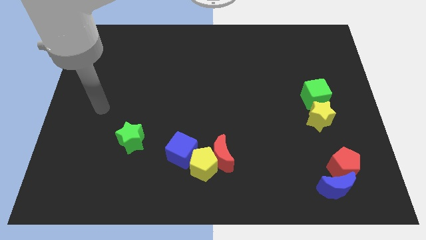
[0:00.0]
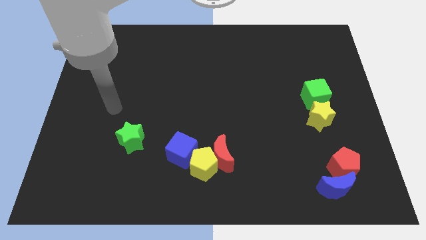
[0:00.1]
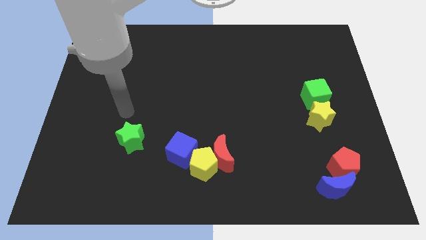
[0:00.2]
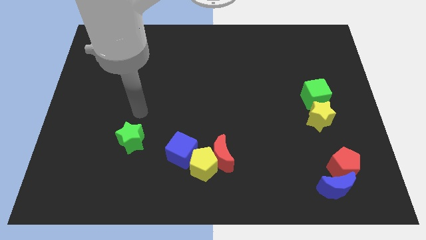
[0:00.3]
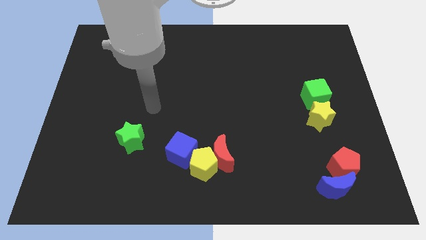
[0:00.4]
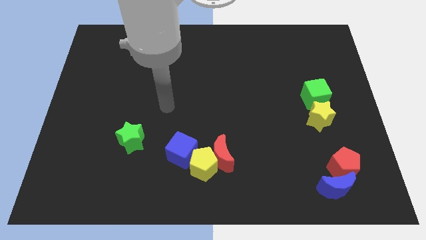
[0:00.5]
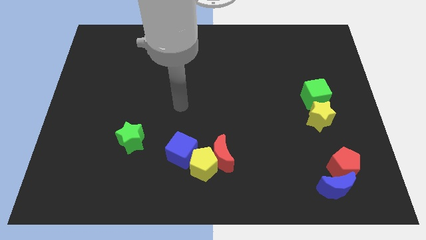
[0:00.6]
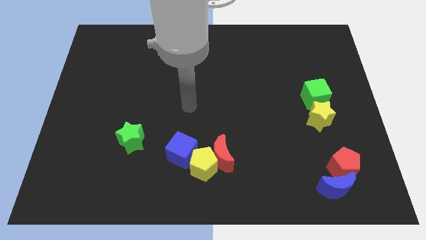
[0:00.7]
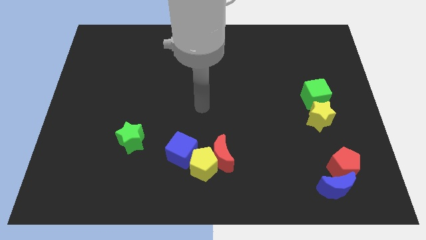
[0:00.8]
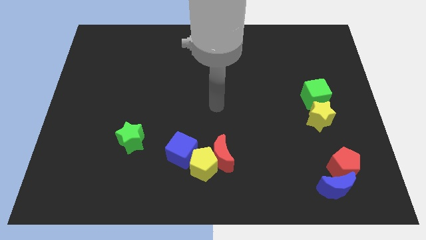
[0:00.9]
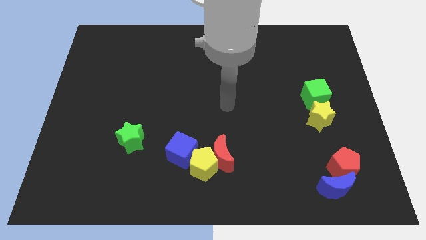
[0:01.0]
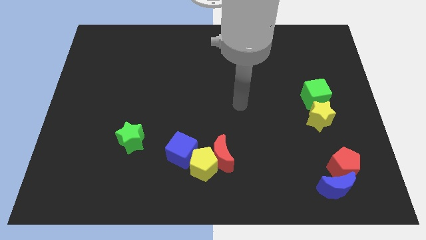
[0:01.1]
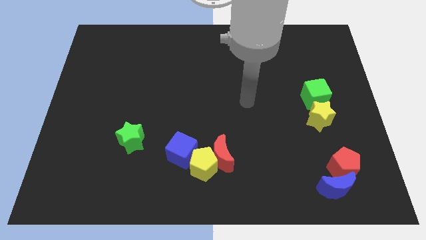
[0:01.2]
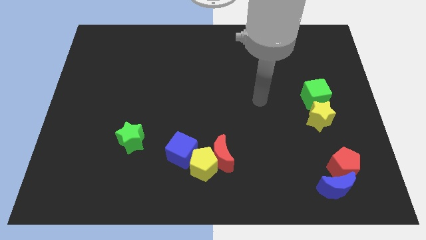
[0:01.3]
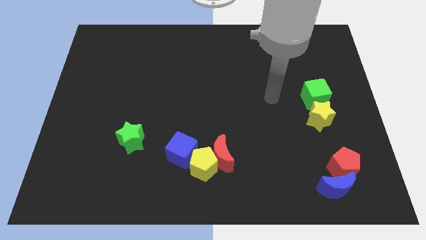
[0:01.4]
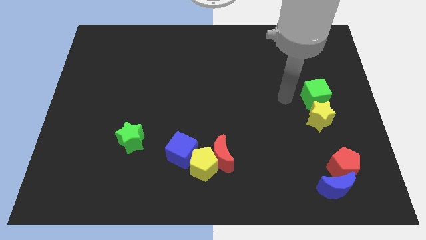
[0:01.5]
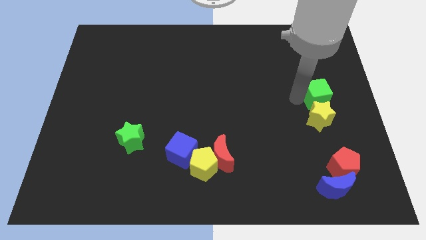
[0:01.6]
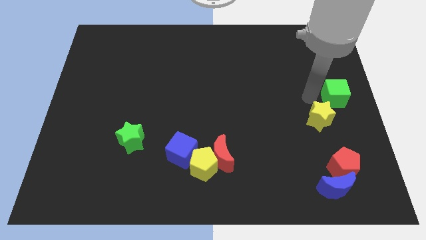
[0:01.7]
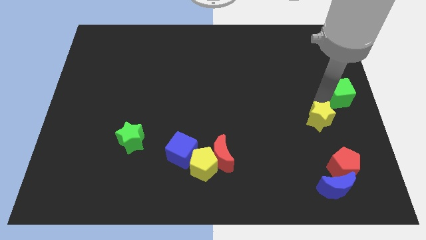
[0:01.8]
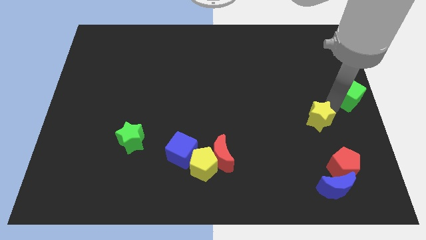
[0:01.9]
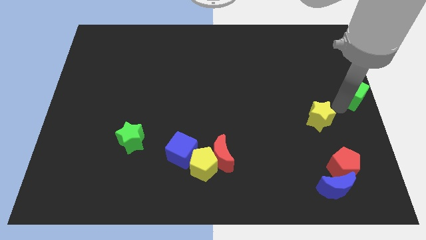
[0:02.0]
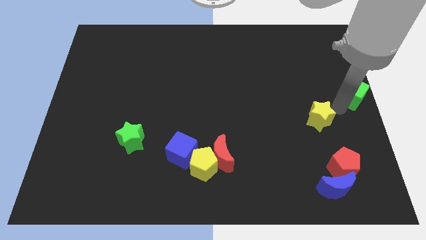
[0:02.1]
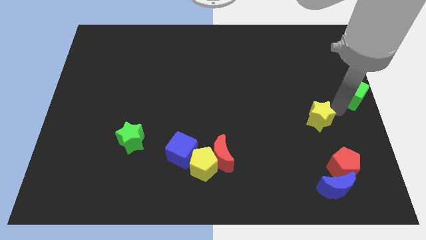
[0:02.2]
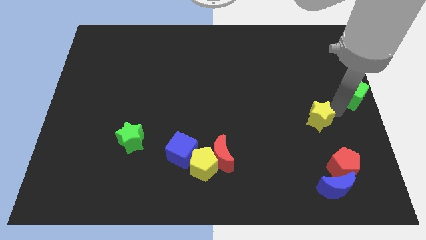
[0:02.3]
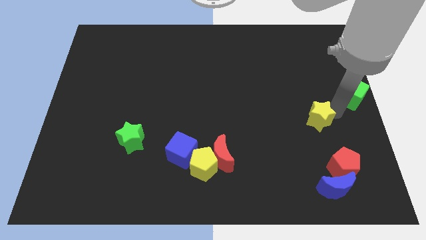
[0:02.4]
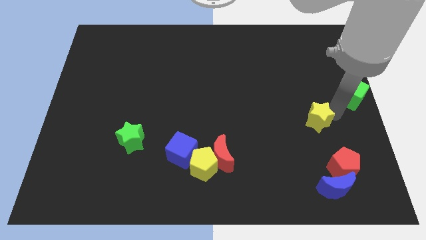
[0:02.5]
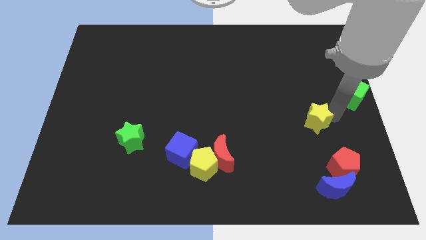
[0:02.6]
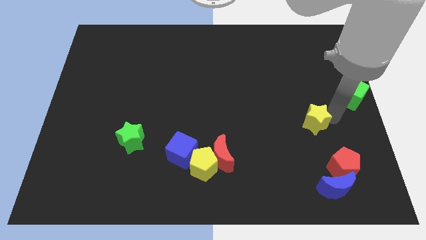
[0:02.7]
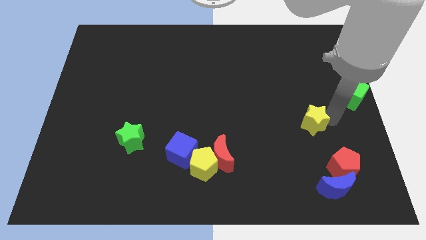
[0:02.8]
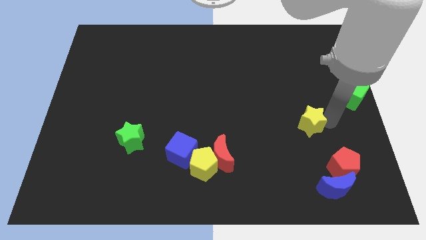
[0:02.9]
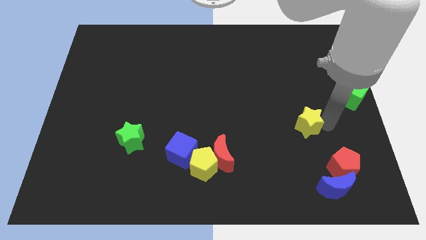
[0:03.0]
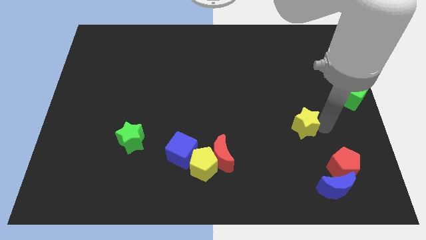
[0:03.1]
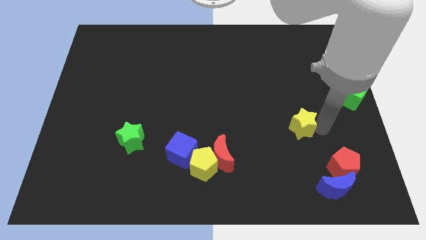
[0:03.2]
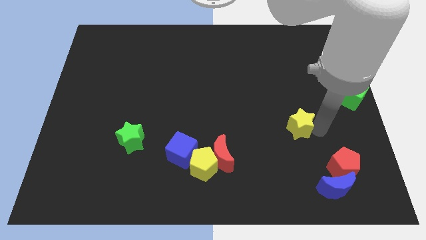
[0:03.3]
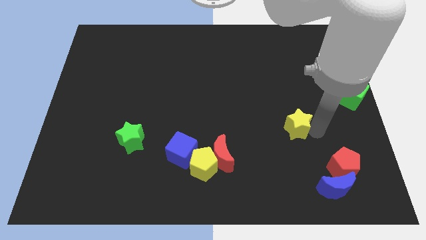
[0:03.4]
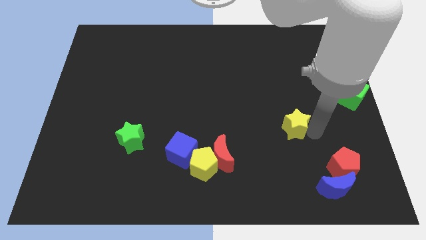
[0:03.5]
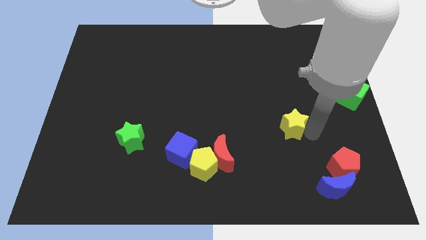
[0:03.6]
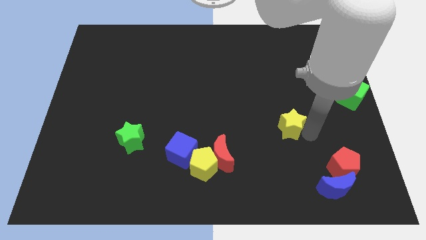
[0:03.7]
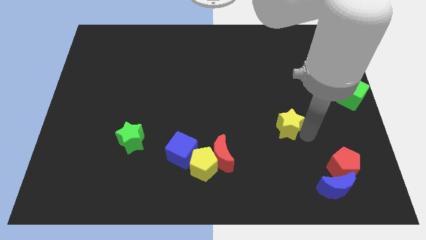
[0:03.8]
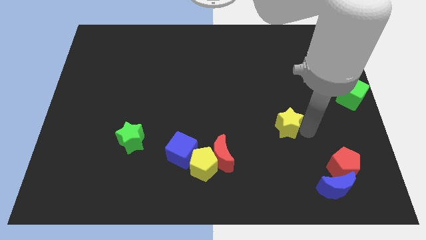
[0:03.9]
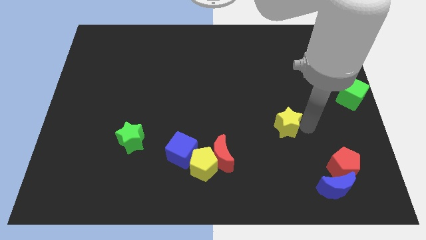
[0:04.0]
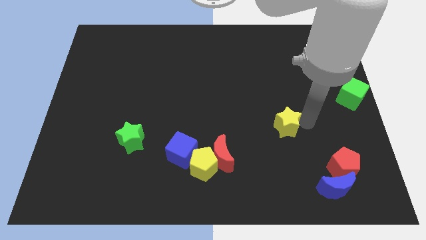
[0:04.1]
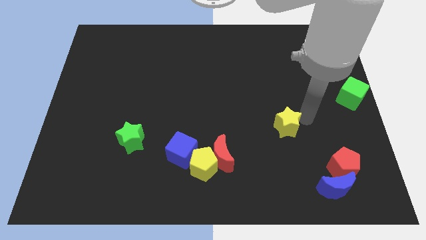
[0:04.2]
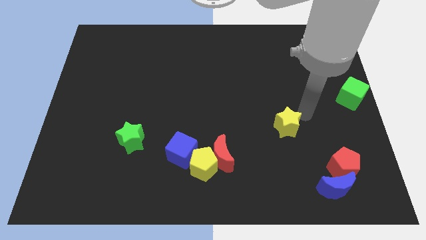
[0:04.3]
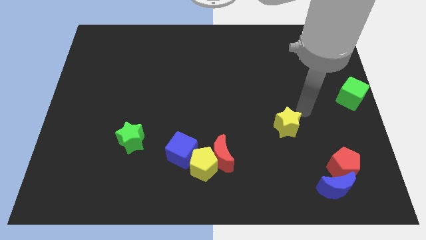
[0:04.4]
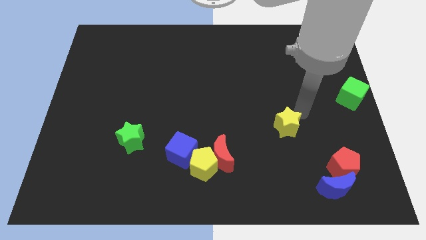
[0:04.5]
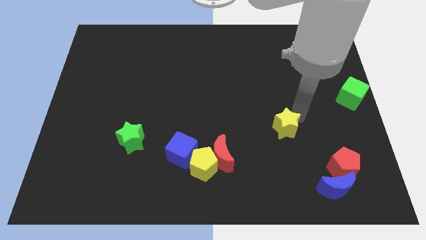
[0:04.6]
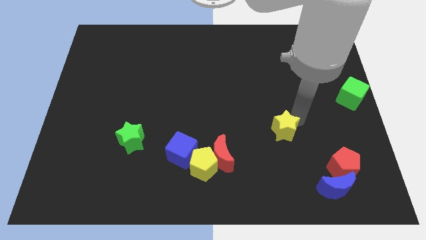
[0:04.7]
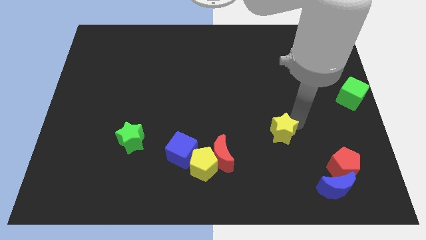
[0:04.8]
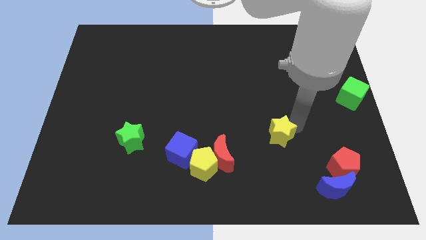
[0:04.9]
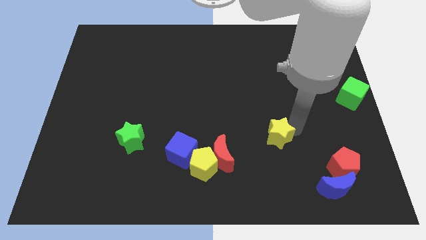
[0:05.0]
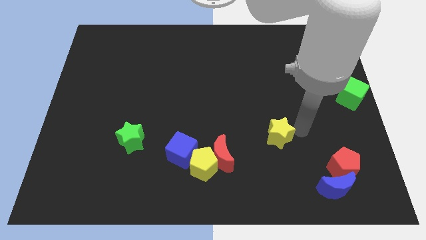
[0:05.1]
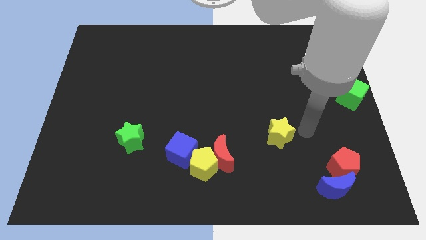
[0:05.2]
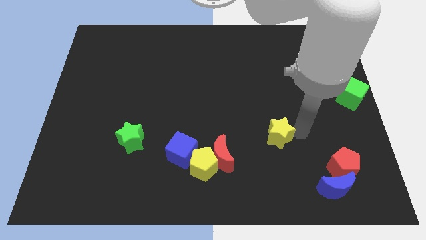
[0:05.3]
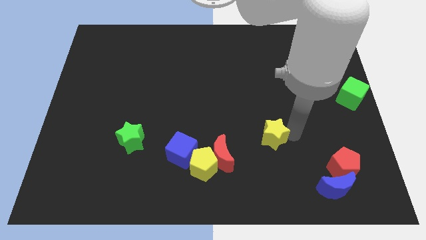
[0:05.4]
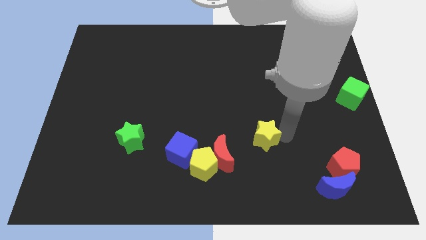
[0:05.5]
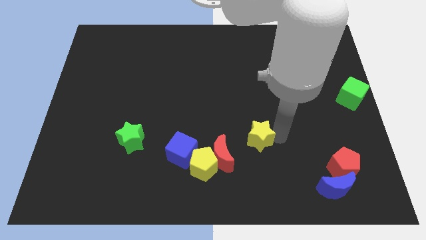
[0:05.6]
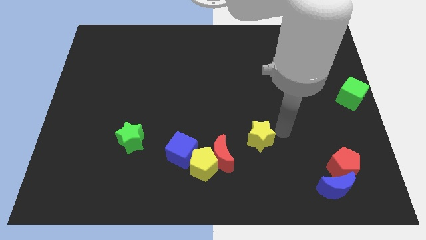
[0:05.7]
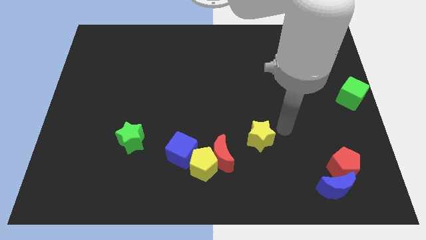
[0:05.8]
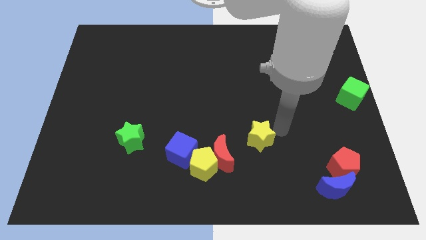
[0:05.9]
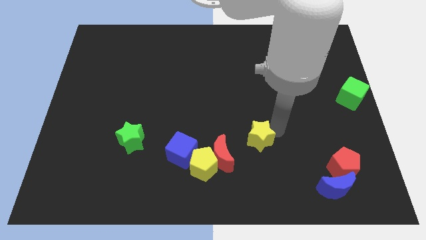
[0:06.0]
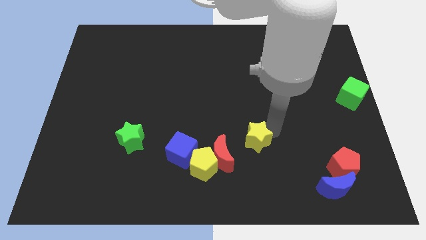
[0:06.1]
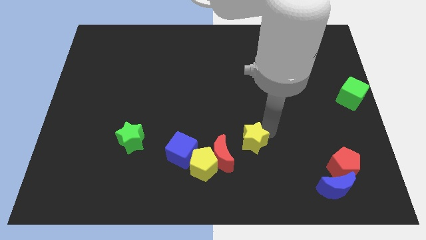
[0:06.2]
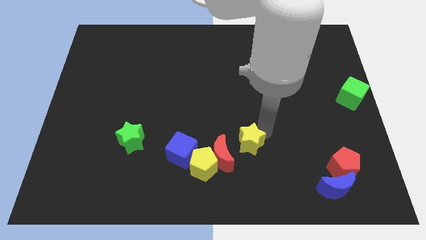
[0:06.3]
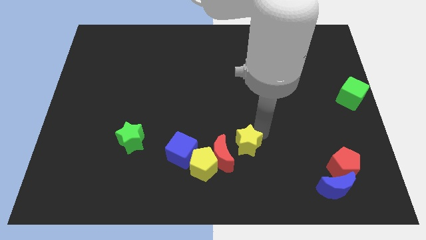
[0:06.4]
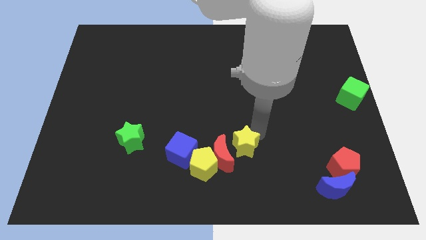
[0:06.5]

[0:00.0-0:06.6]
push the yellow star to the red moon

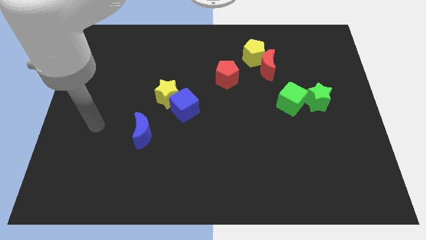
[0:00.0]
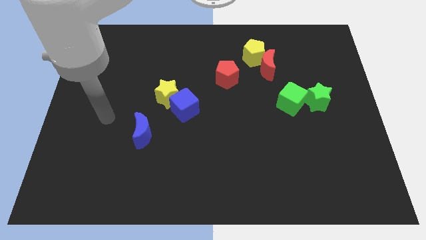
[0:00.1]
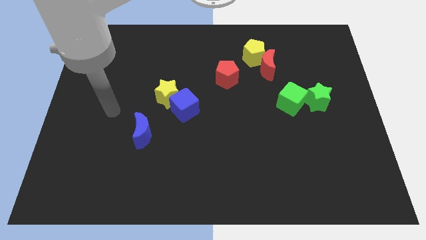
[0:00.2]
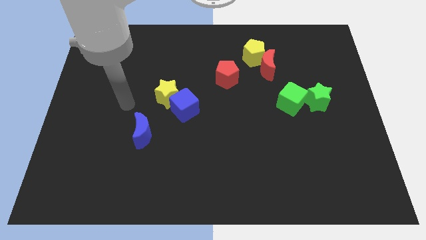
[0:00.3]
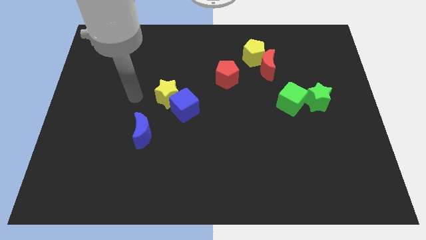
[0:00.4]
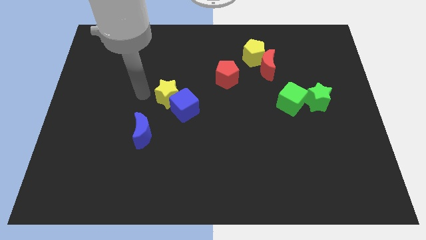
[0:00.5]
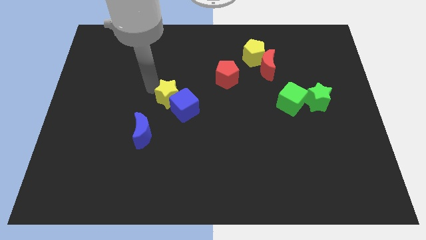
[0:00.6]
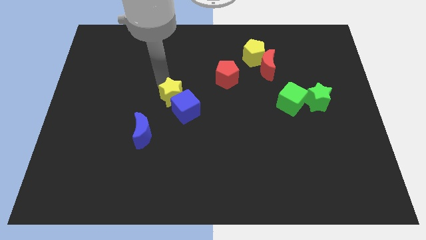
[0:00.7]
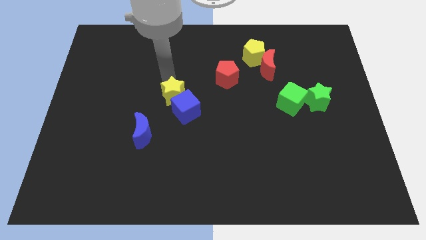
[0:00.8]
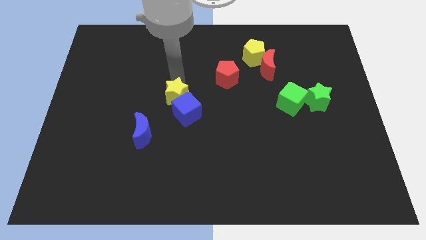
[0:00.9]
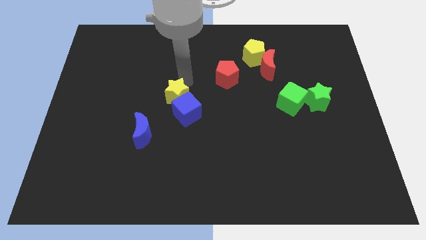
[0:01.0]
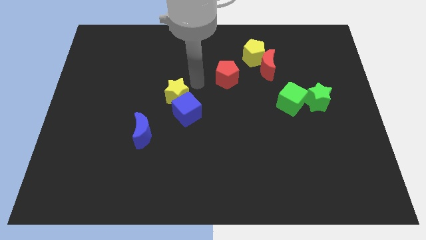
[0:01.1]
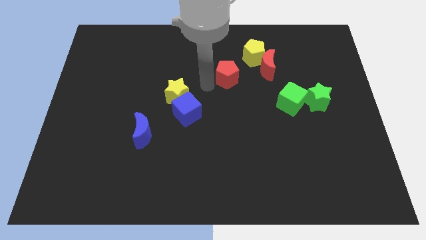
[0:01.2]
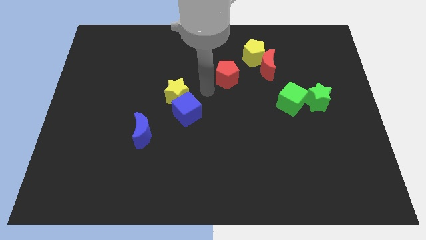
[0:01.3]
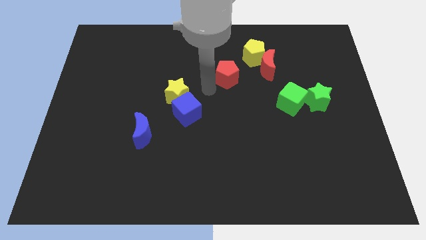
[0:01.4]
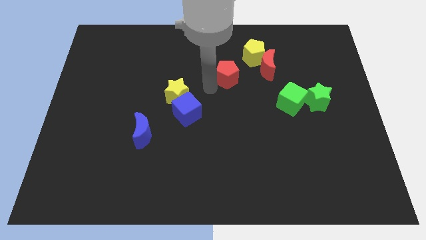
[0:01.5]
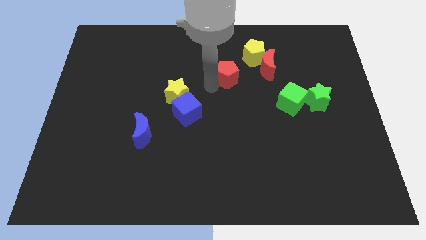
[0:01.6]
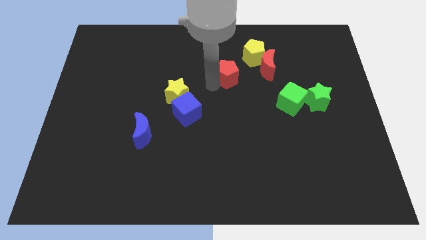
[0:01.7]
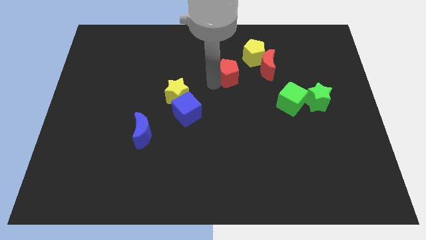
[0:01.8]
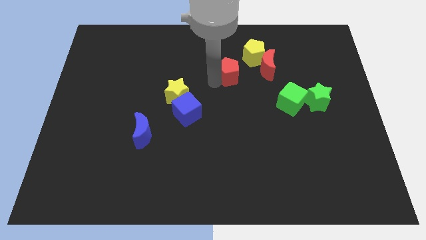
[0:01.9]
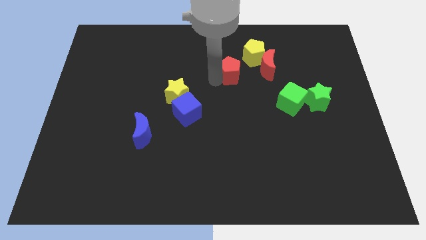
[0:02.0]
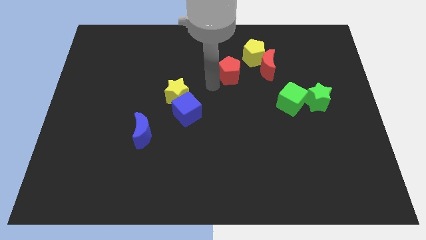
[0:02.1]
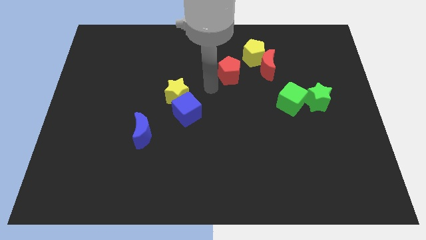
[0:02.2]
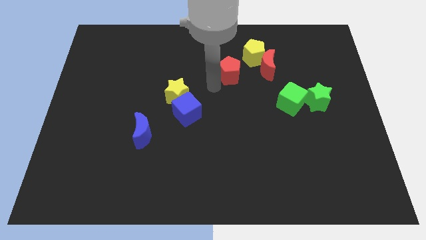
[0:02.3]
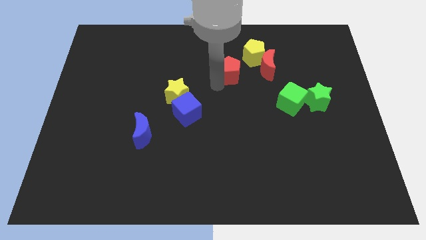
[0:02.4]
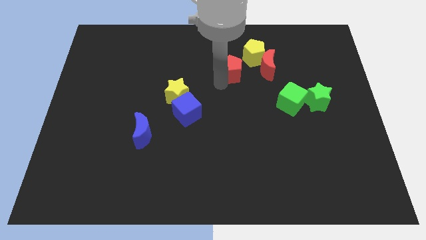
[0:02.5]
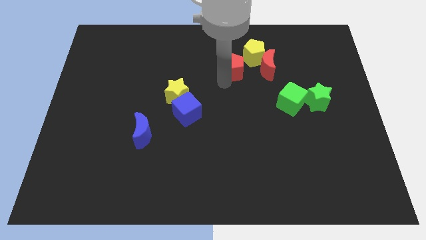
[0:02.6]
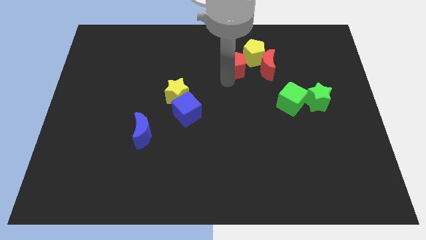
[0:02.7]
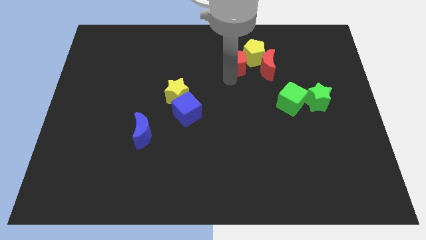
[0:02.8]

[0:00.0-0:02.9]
slide the red pentagon close to the yellow pentagon
